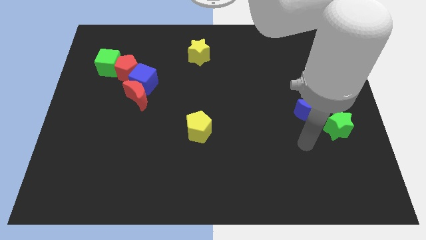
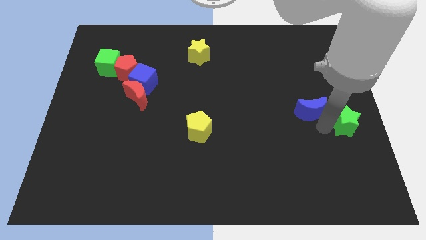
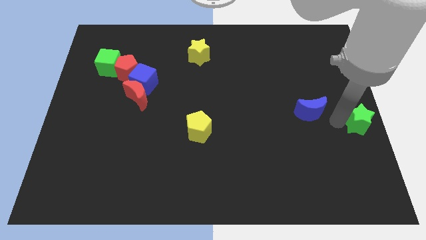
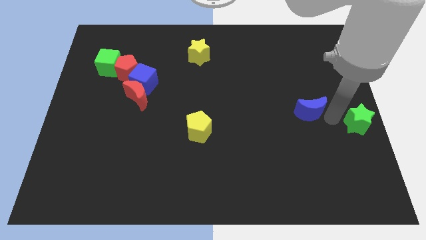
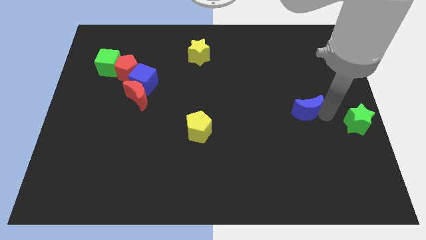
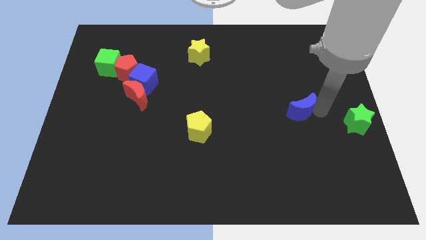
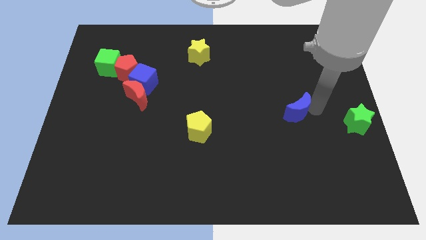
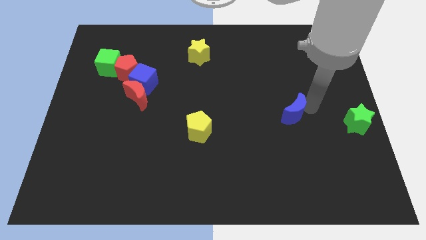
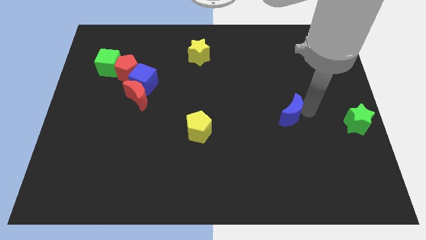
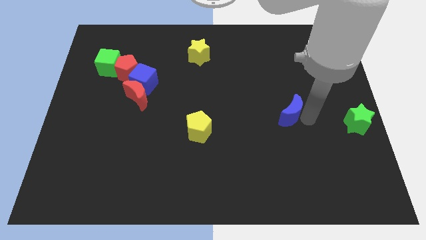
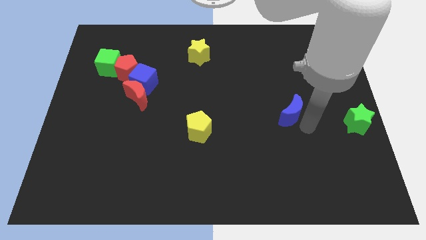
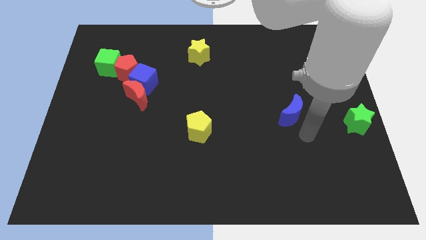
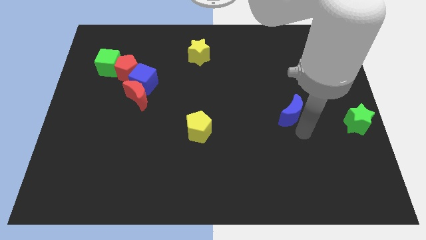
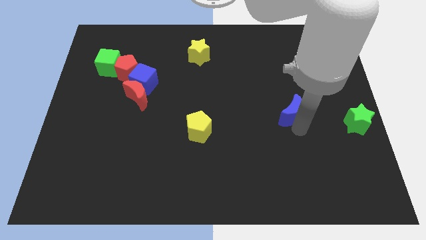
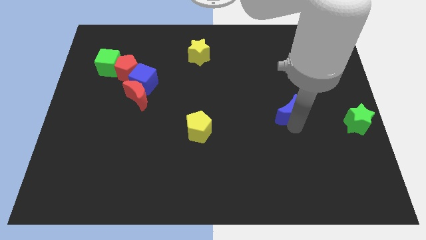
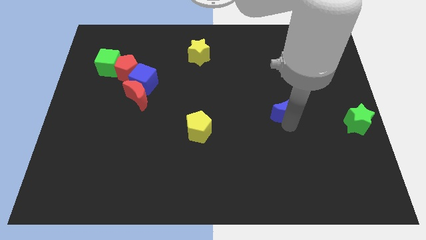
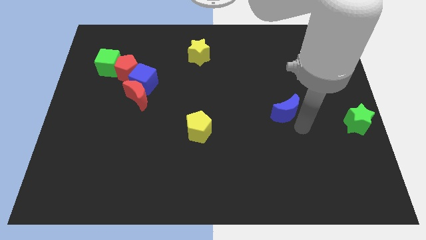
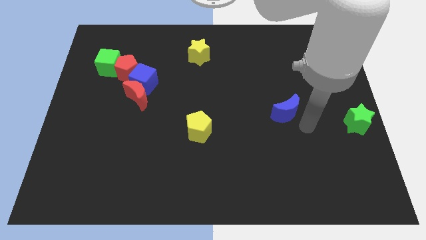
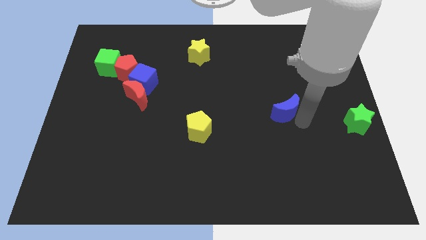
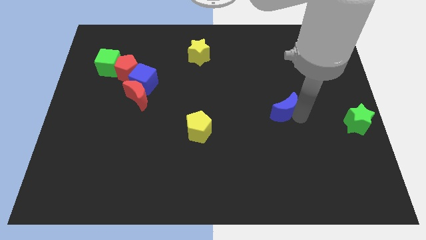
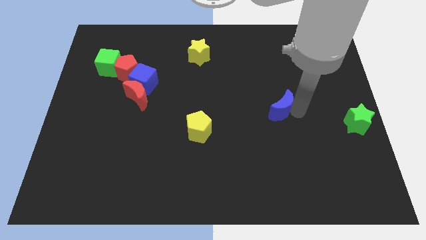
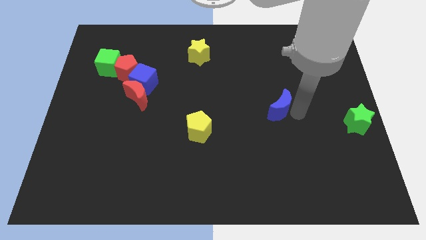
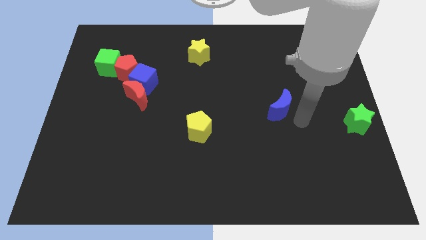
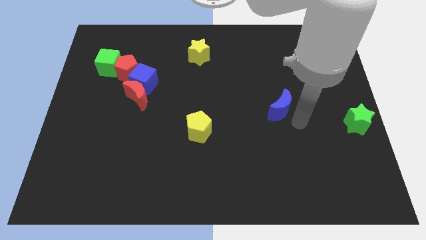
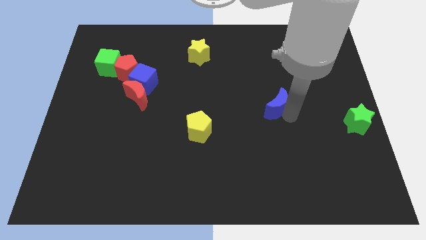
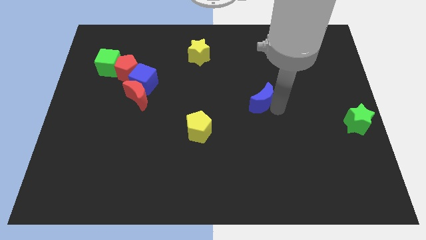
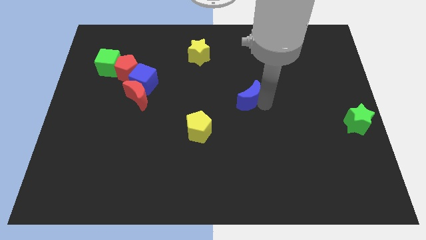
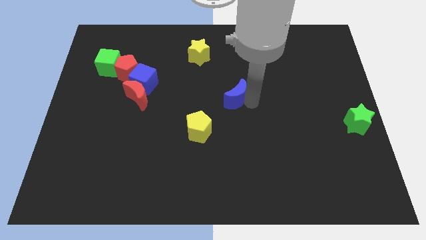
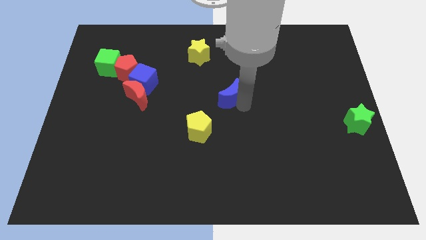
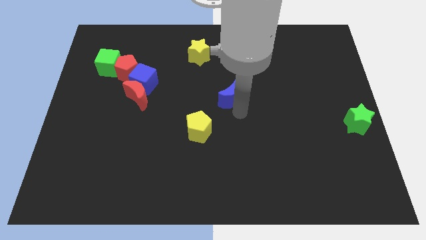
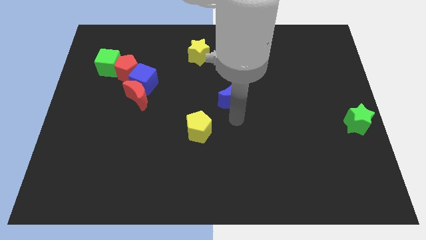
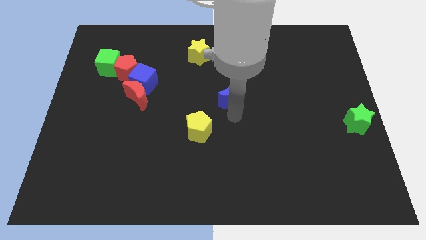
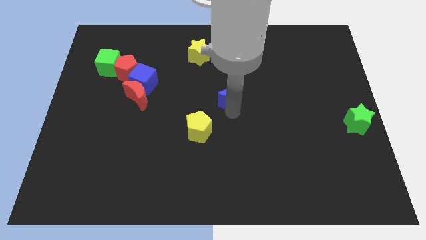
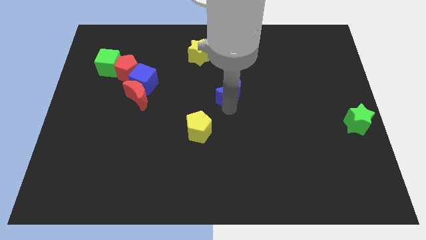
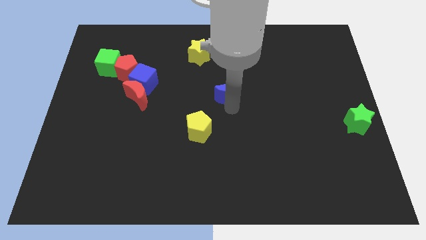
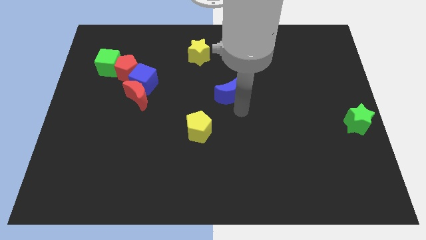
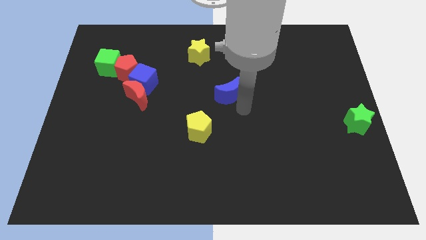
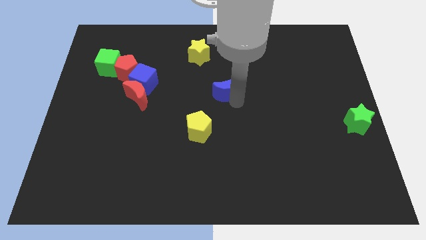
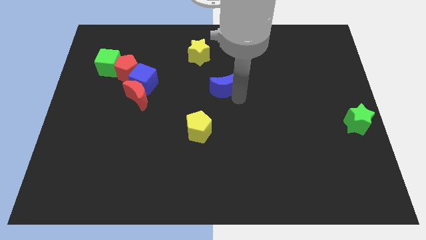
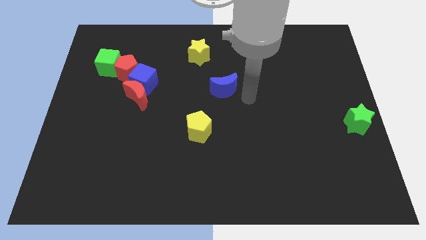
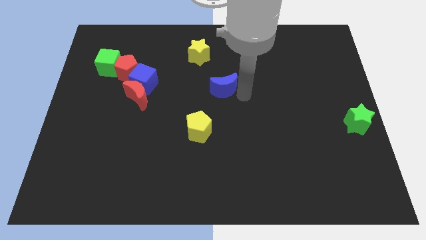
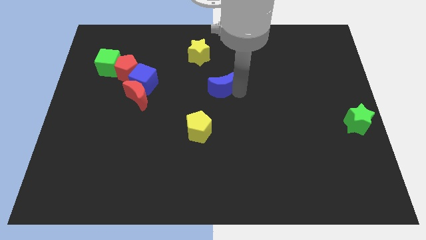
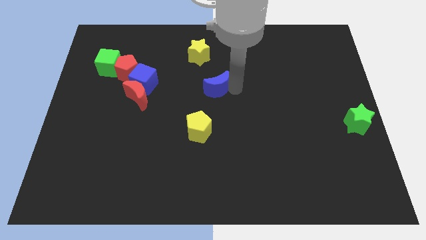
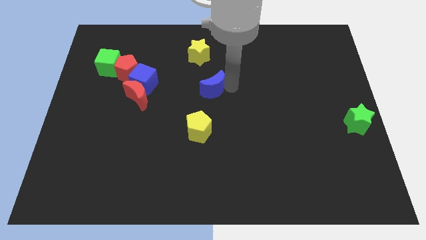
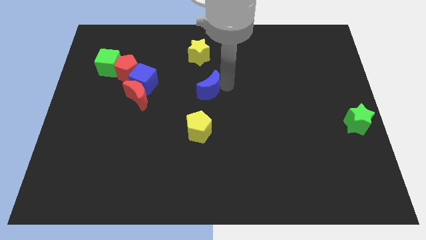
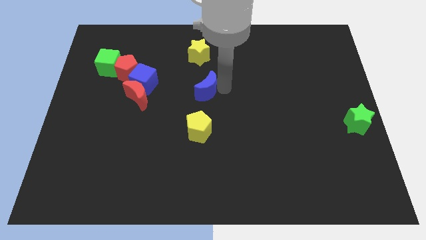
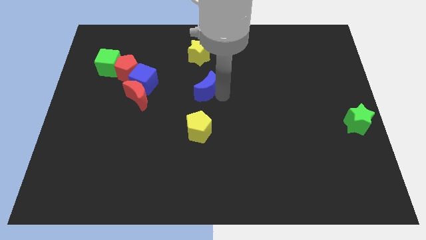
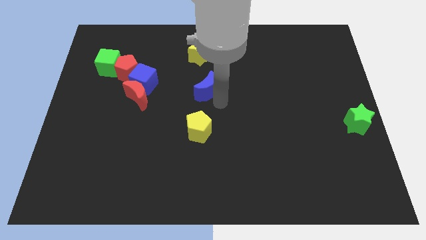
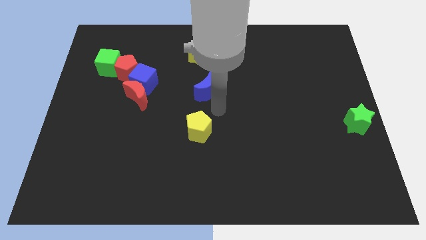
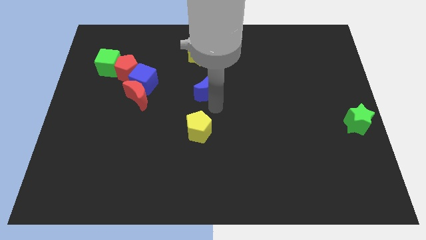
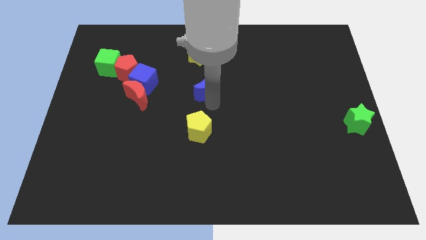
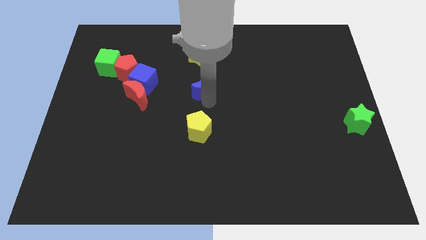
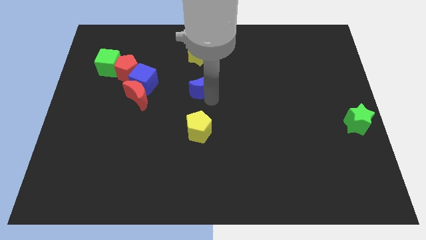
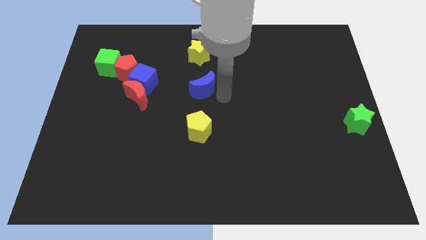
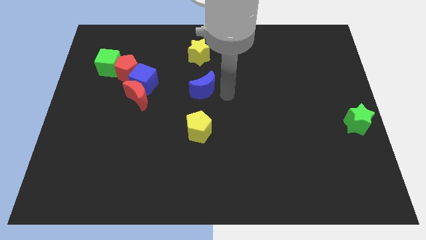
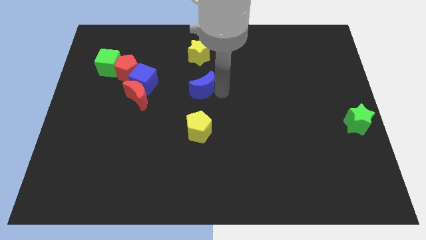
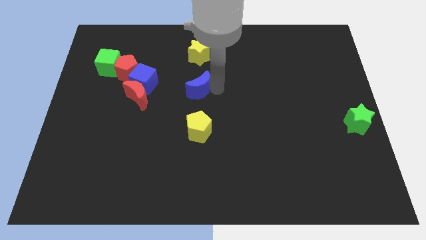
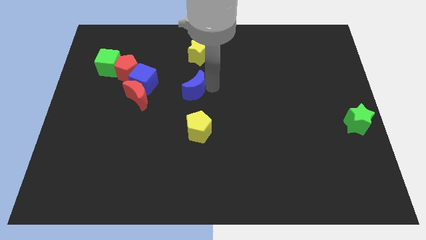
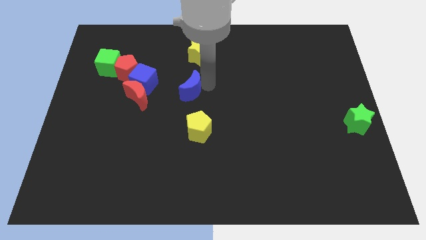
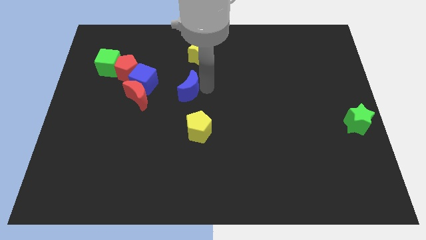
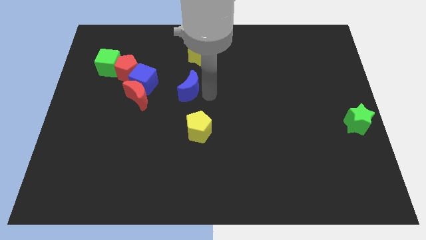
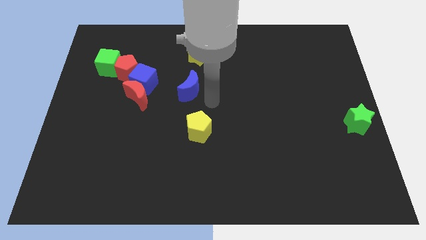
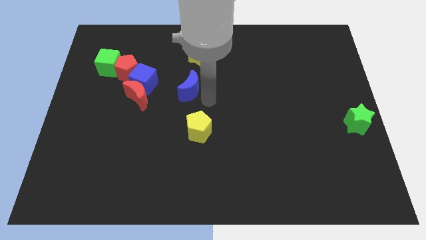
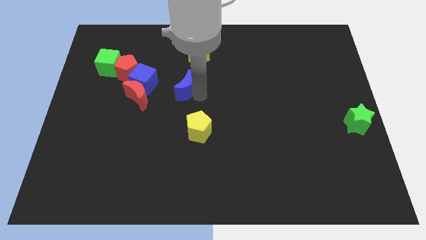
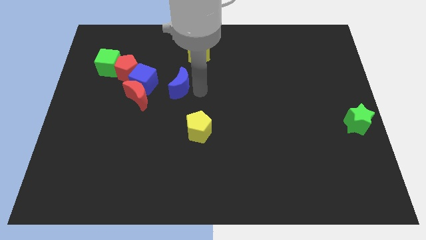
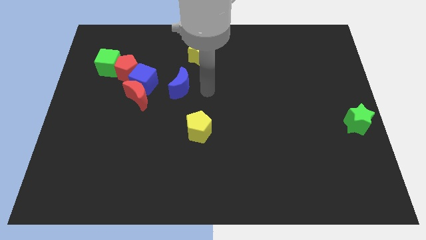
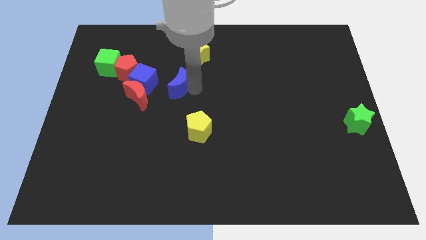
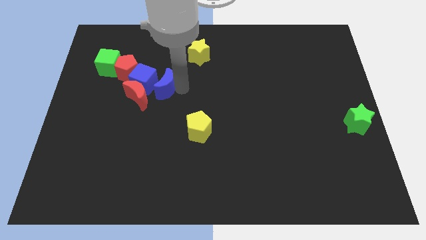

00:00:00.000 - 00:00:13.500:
slide the blue moon close to the blue cube
